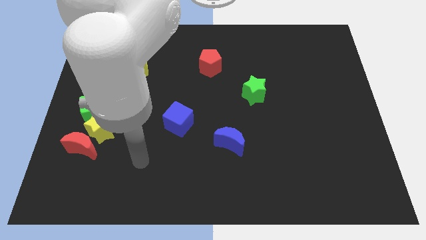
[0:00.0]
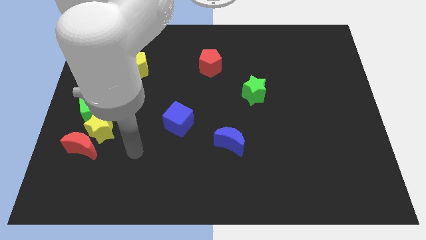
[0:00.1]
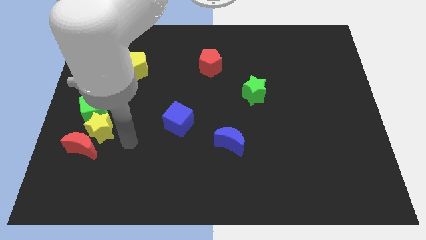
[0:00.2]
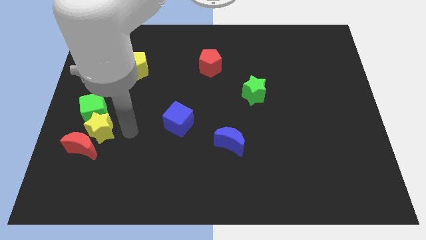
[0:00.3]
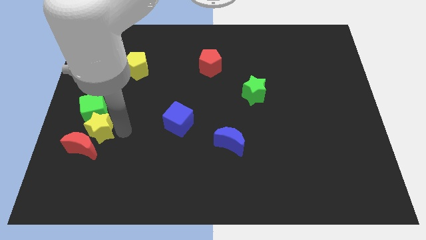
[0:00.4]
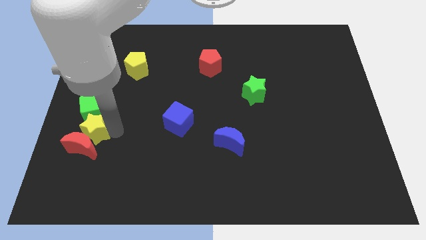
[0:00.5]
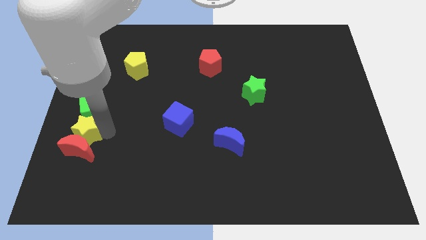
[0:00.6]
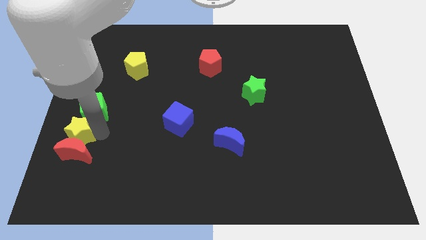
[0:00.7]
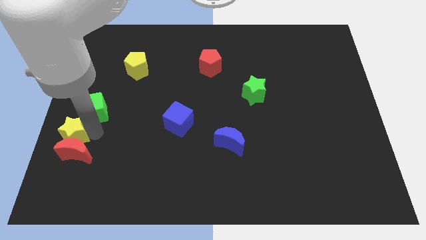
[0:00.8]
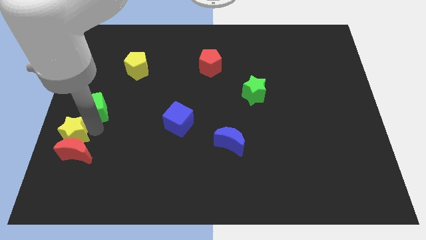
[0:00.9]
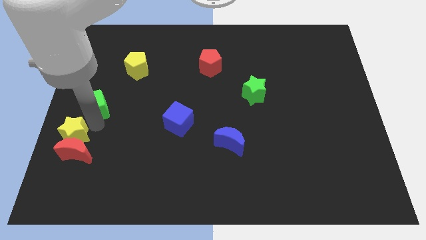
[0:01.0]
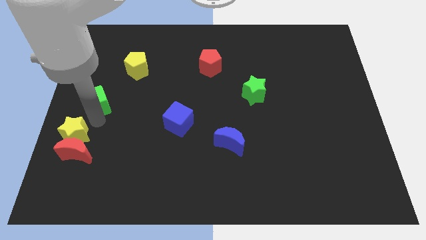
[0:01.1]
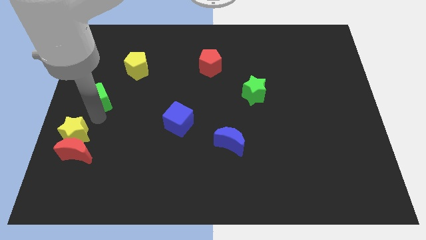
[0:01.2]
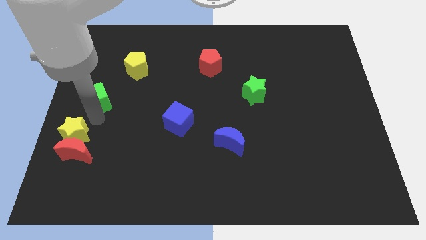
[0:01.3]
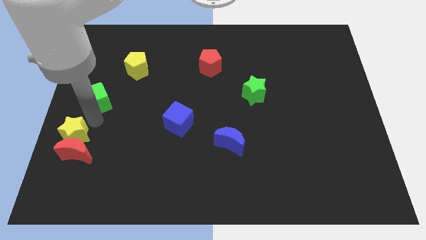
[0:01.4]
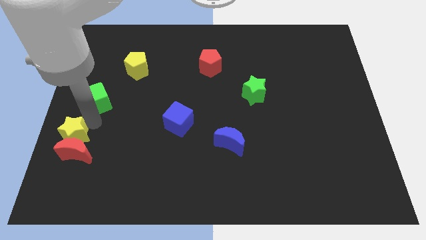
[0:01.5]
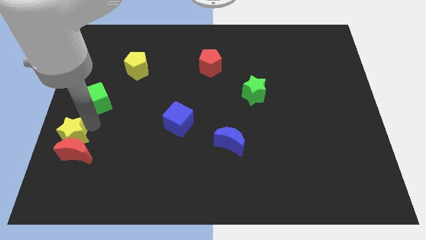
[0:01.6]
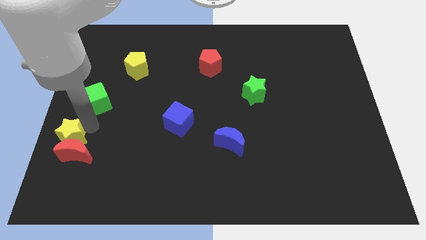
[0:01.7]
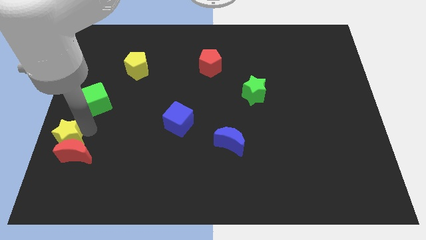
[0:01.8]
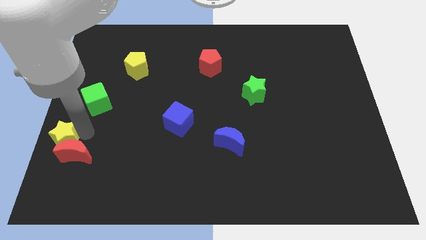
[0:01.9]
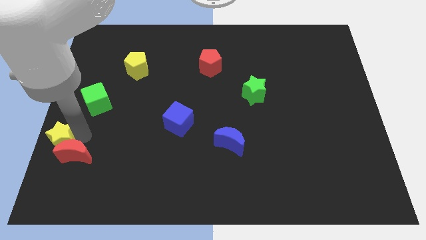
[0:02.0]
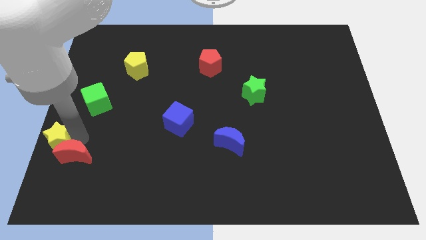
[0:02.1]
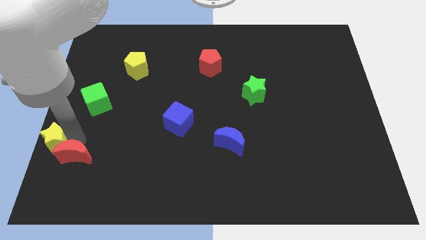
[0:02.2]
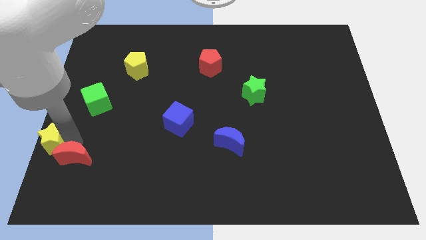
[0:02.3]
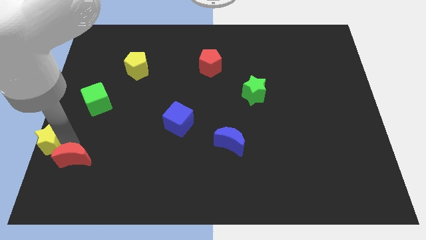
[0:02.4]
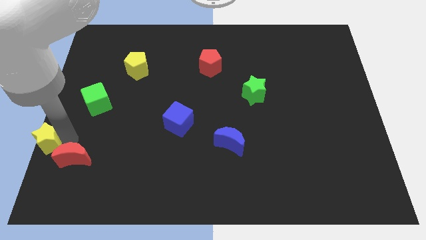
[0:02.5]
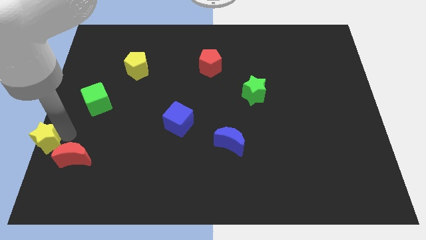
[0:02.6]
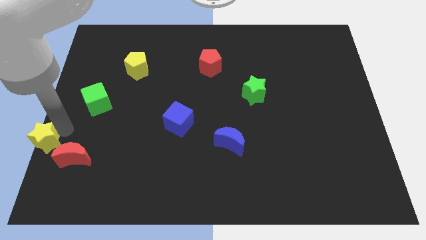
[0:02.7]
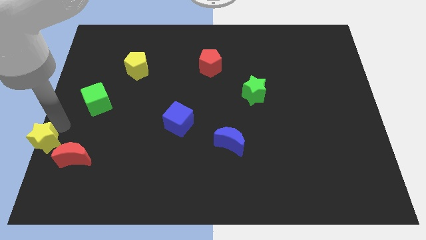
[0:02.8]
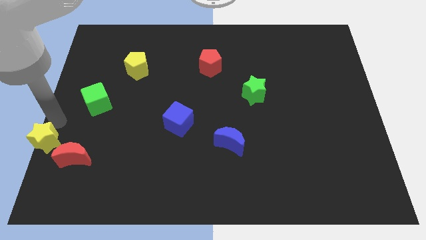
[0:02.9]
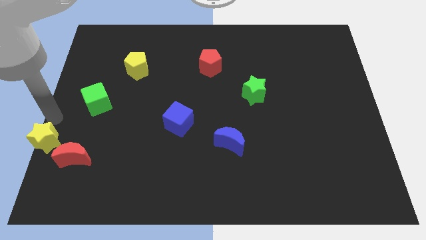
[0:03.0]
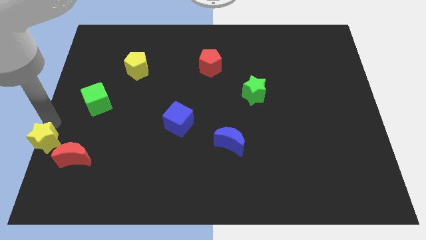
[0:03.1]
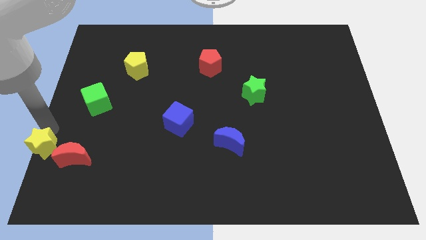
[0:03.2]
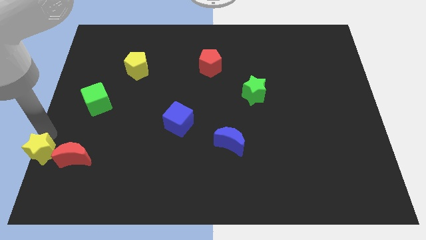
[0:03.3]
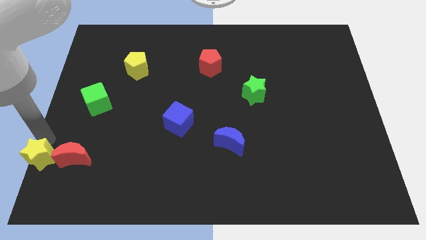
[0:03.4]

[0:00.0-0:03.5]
move the yellow star to the bottom left

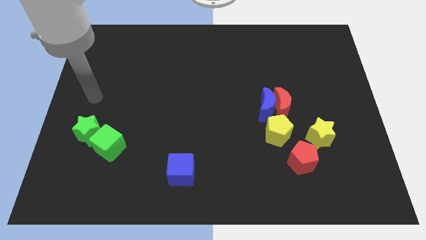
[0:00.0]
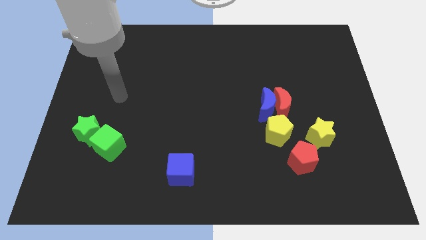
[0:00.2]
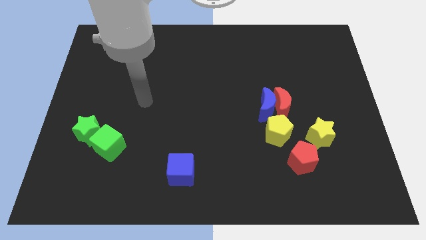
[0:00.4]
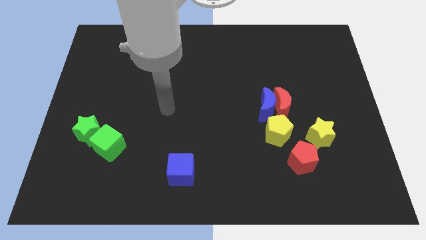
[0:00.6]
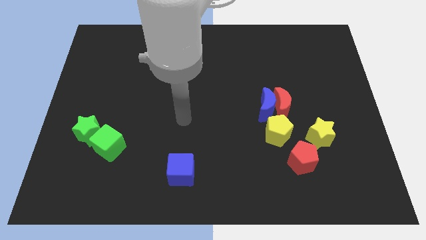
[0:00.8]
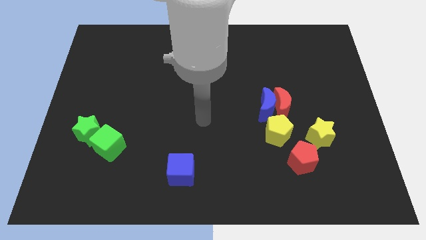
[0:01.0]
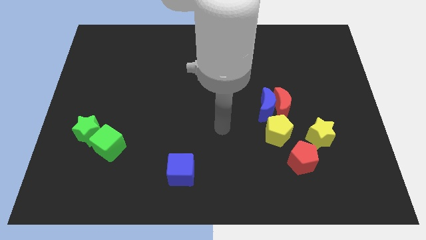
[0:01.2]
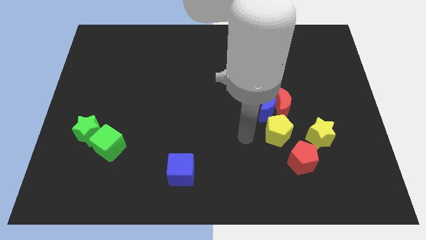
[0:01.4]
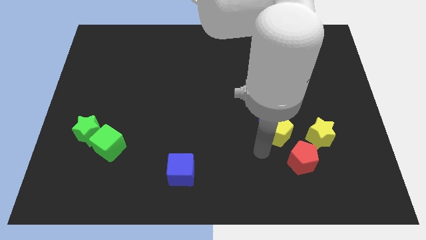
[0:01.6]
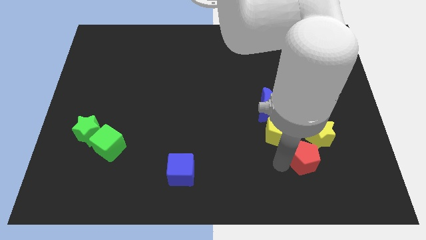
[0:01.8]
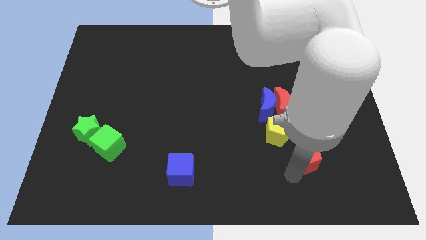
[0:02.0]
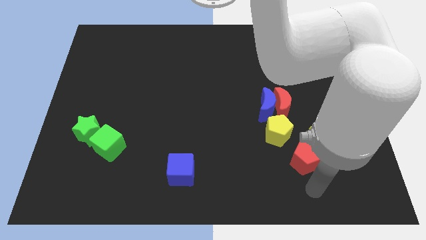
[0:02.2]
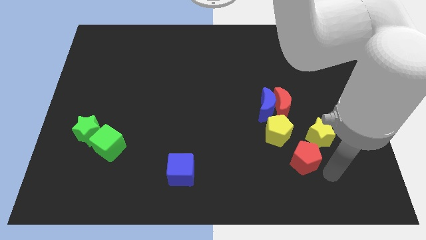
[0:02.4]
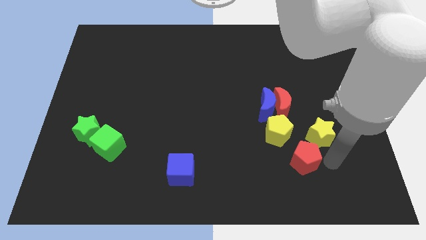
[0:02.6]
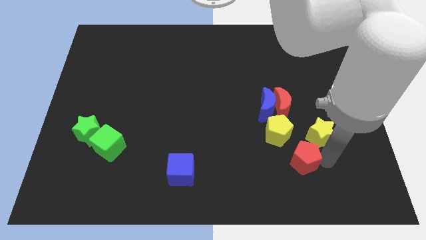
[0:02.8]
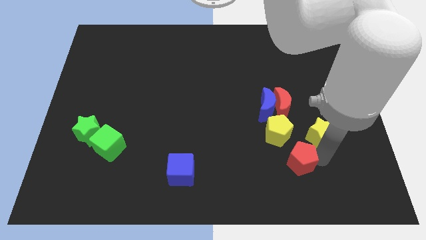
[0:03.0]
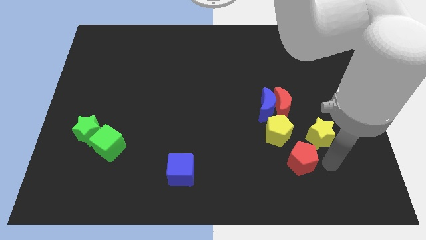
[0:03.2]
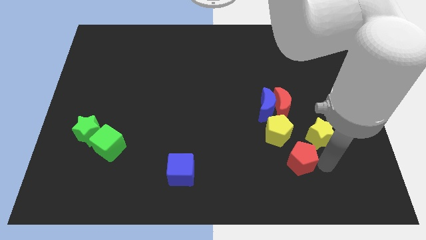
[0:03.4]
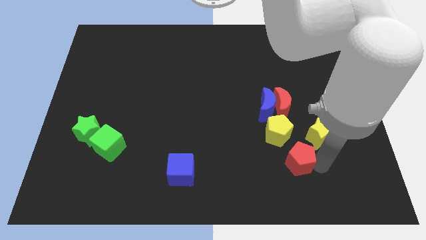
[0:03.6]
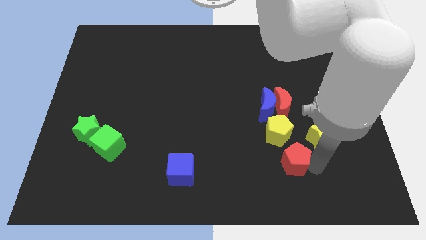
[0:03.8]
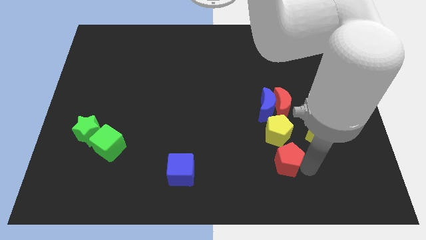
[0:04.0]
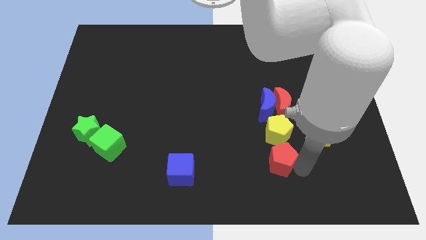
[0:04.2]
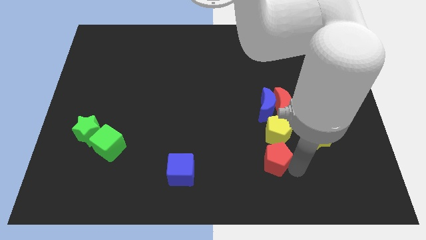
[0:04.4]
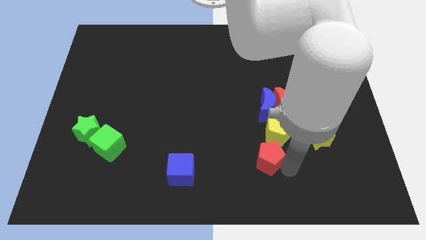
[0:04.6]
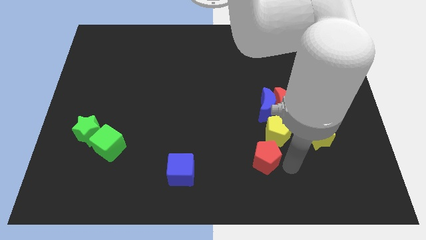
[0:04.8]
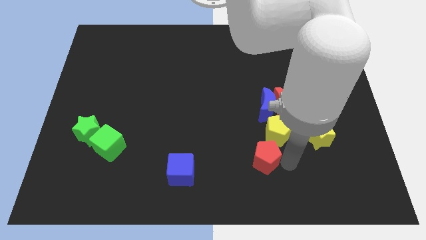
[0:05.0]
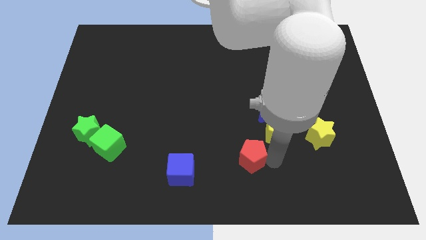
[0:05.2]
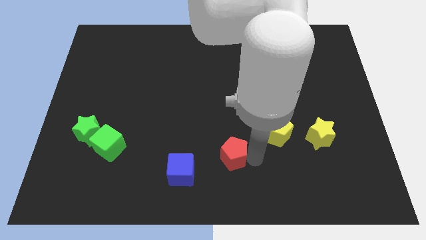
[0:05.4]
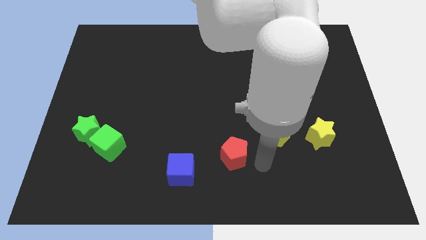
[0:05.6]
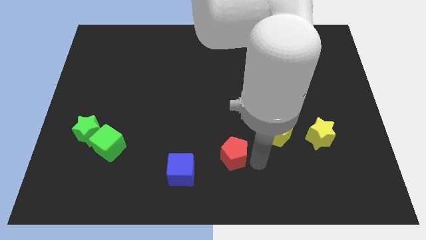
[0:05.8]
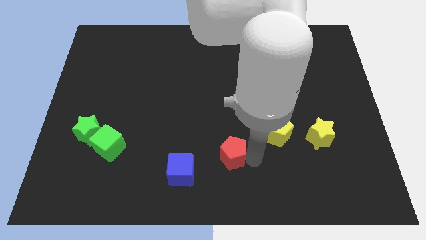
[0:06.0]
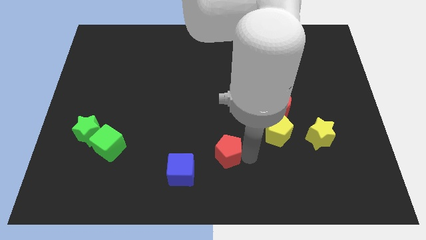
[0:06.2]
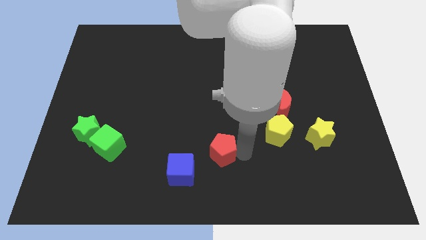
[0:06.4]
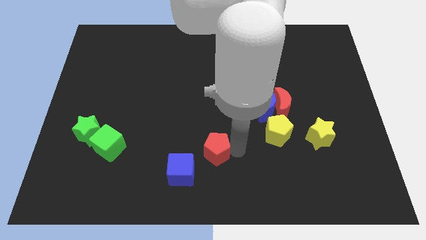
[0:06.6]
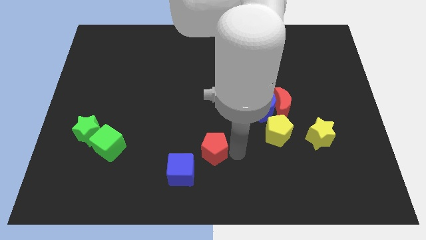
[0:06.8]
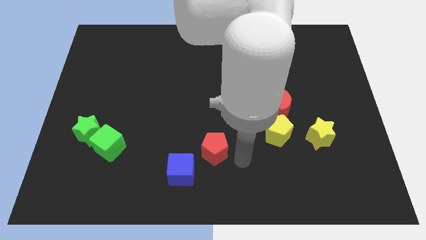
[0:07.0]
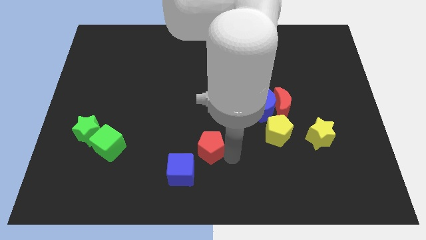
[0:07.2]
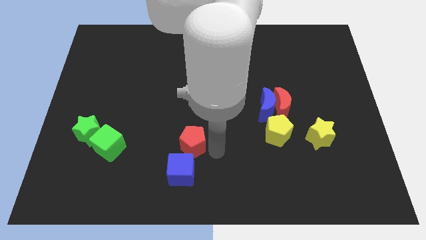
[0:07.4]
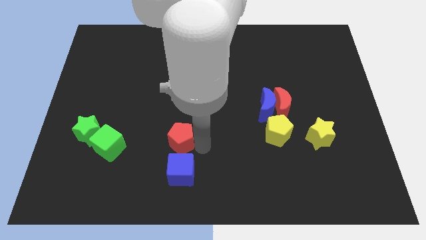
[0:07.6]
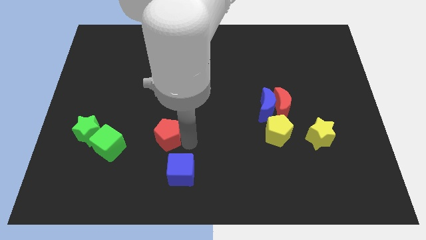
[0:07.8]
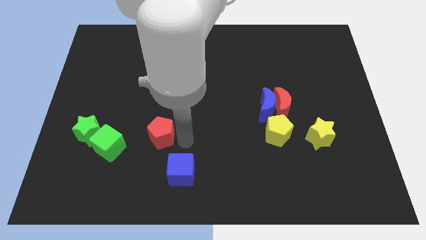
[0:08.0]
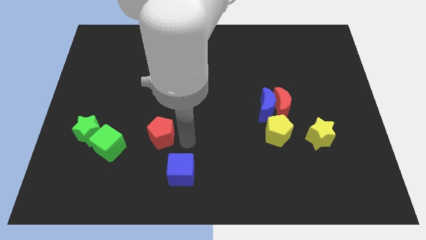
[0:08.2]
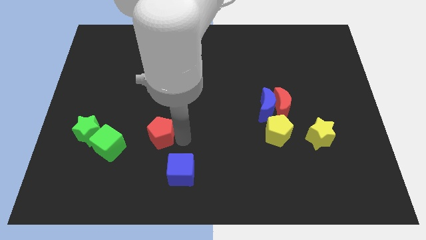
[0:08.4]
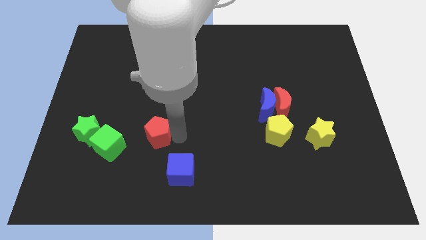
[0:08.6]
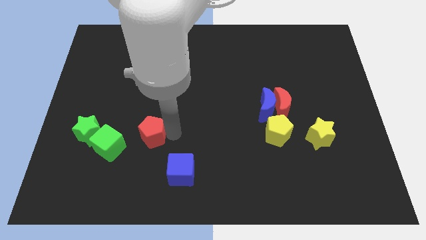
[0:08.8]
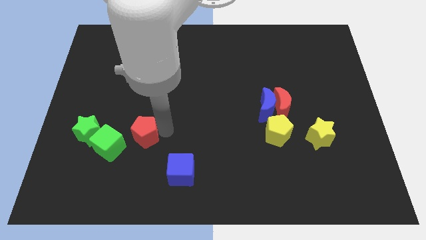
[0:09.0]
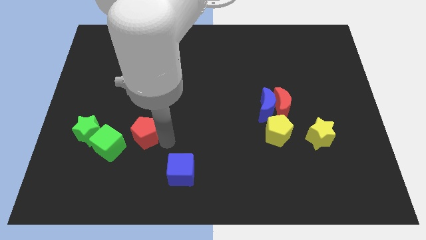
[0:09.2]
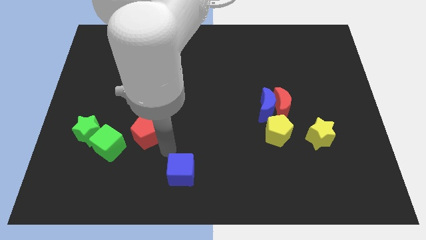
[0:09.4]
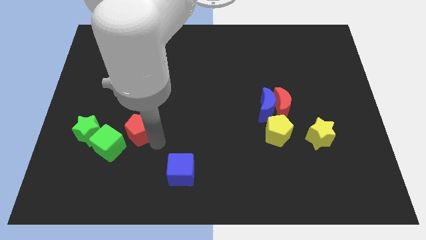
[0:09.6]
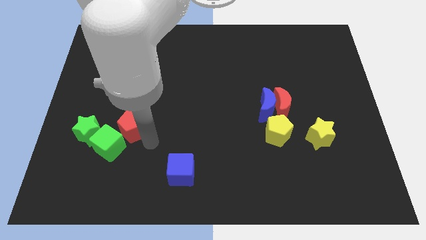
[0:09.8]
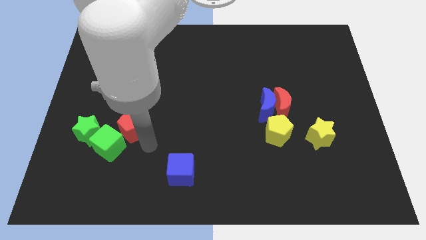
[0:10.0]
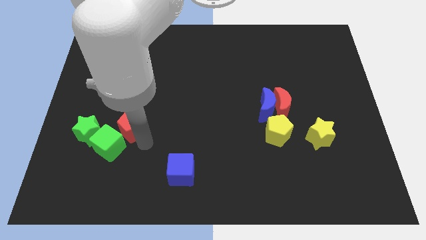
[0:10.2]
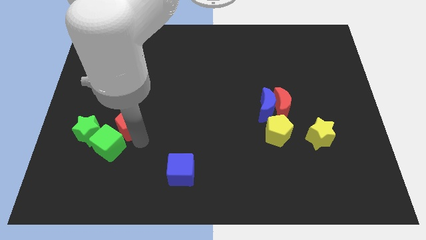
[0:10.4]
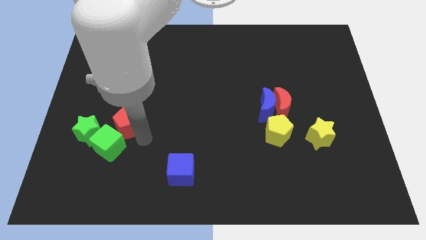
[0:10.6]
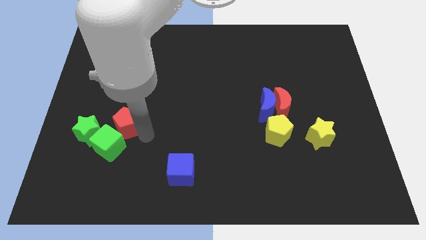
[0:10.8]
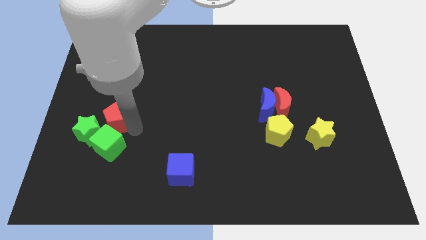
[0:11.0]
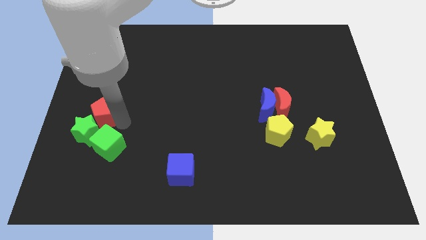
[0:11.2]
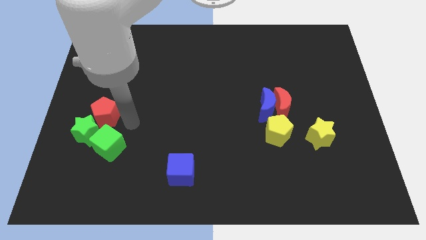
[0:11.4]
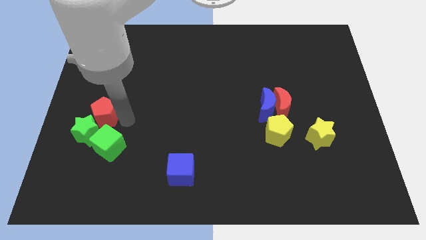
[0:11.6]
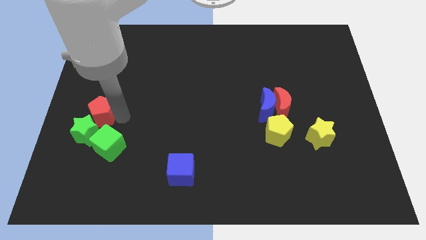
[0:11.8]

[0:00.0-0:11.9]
push the red pentagon to the left side of the board
